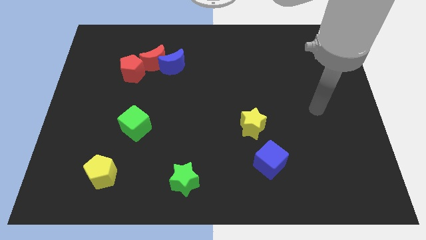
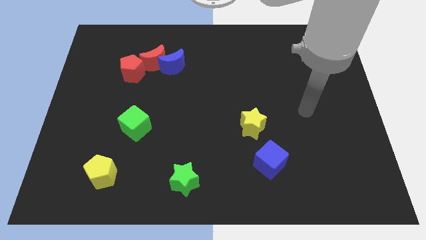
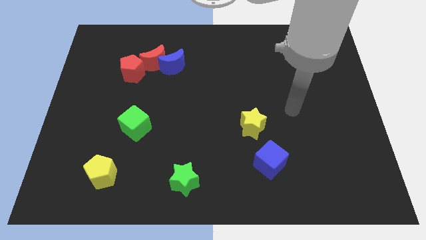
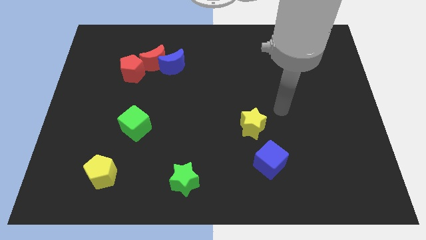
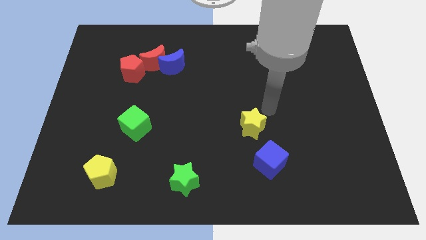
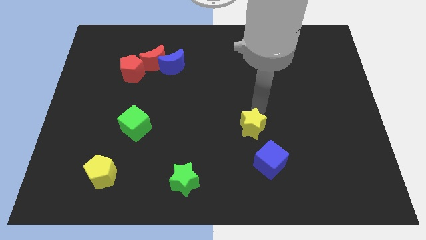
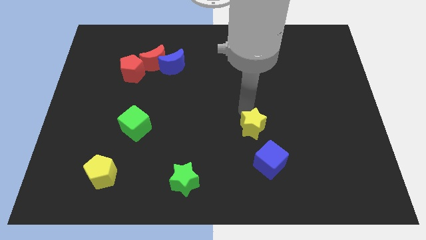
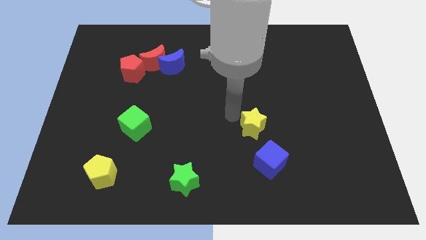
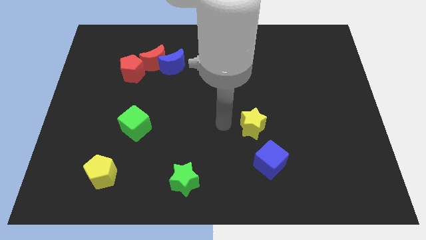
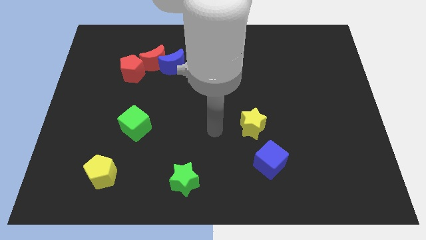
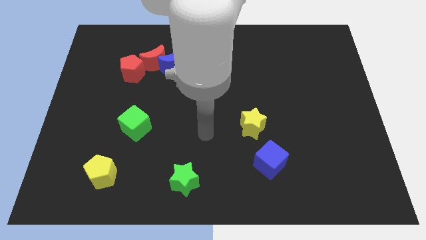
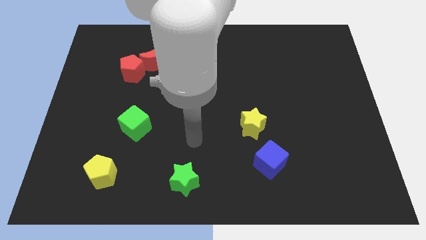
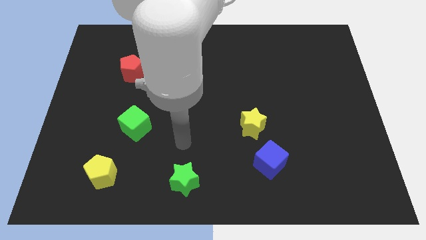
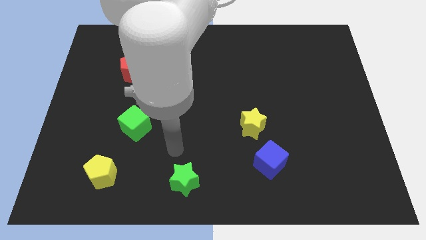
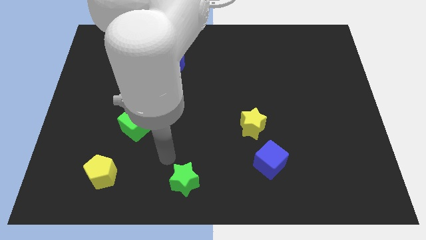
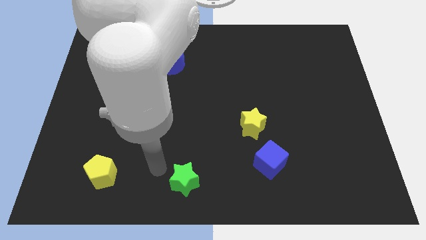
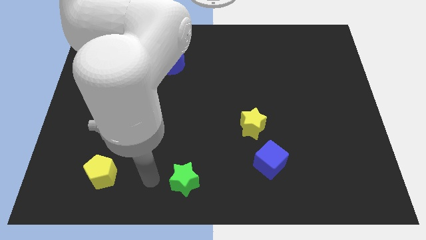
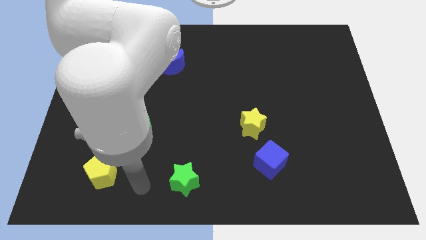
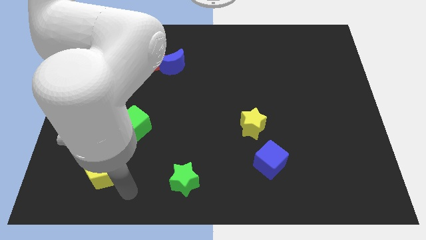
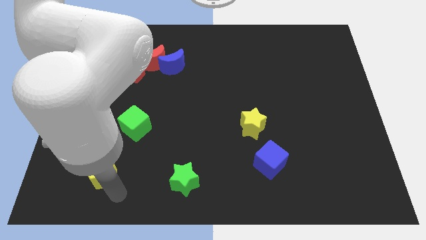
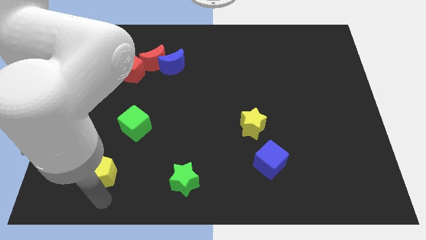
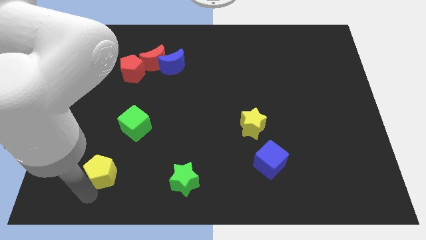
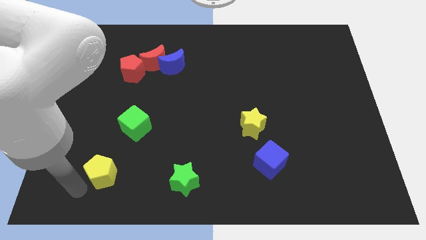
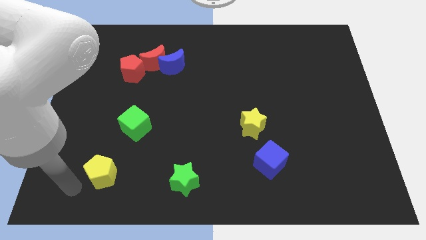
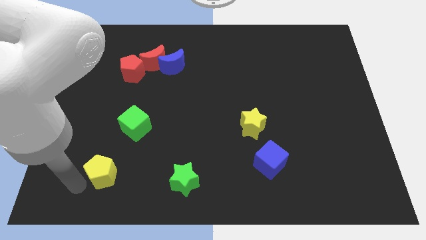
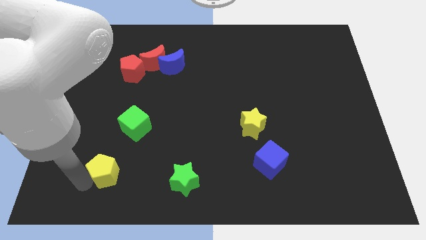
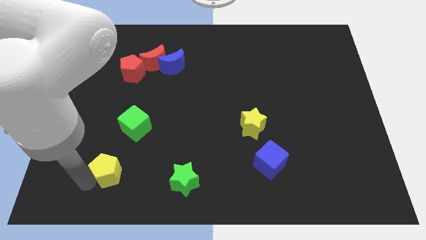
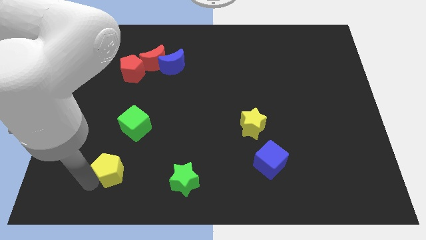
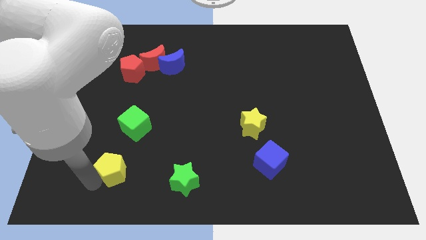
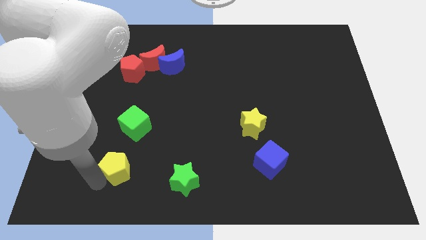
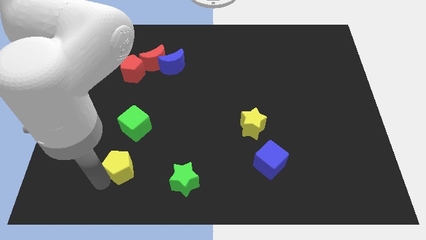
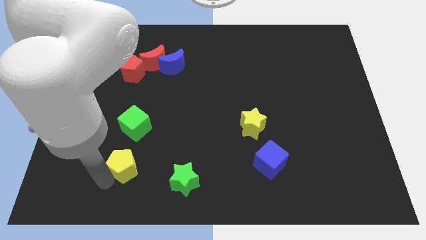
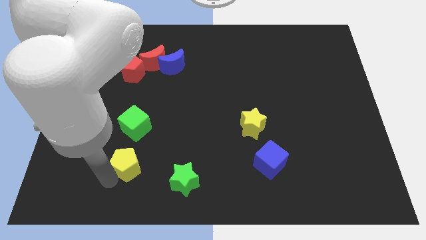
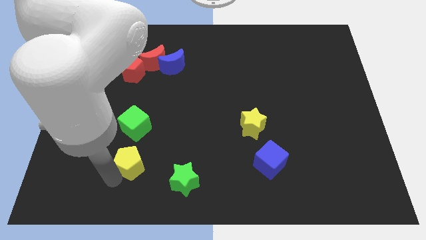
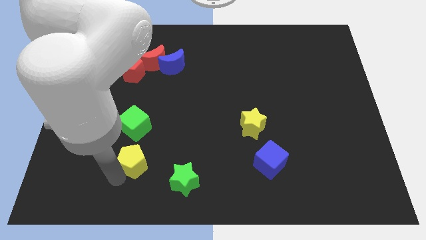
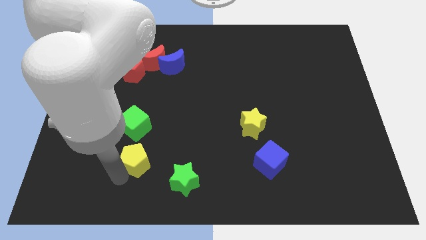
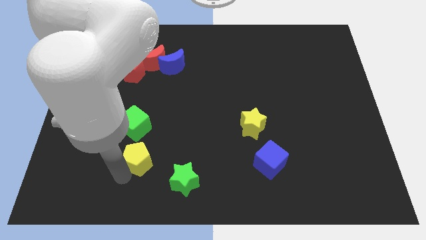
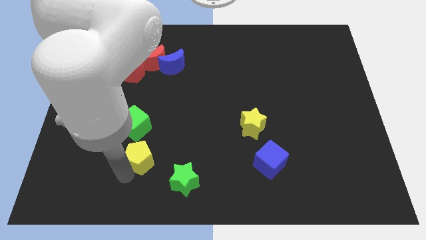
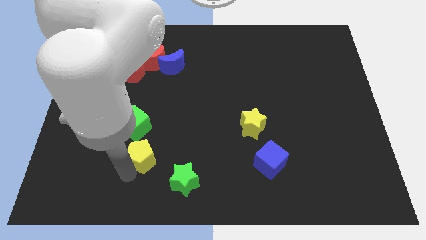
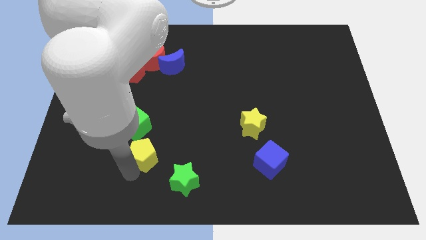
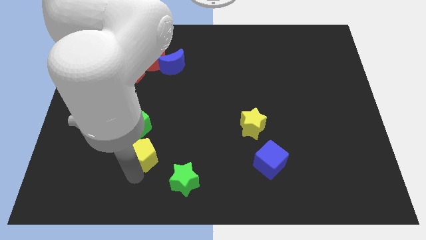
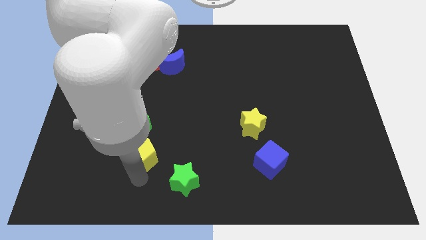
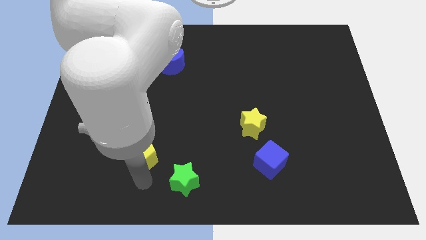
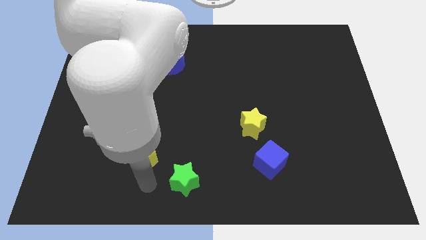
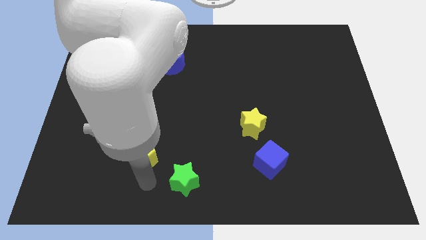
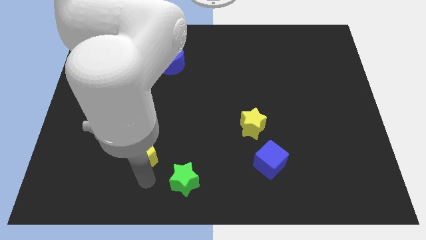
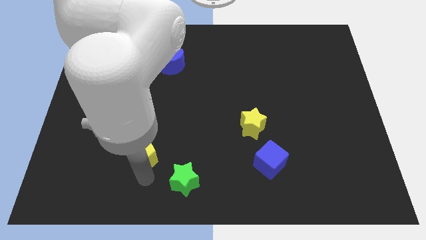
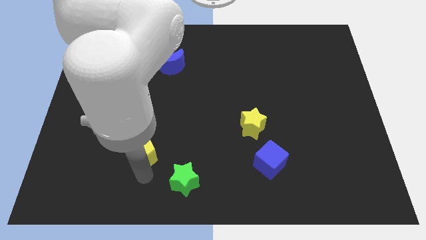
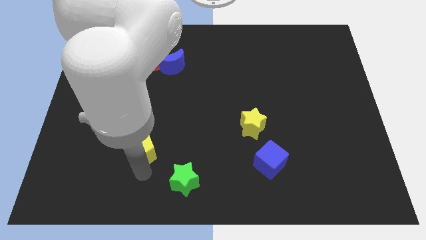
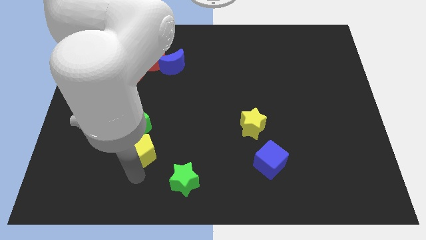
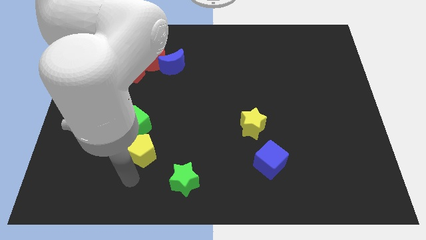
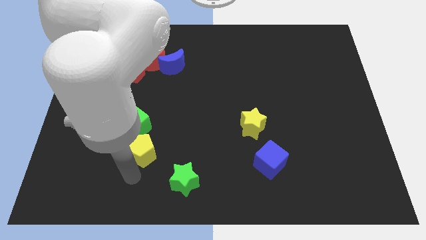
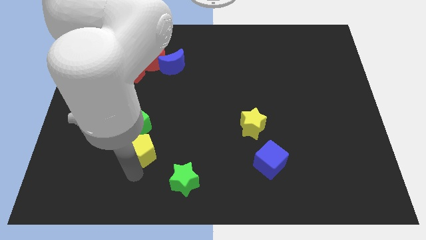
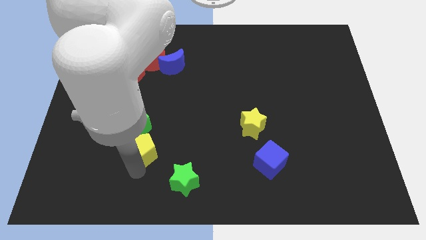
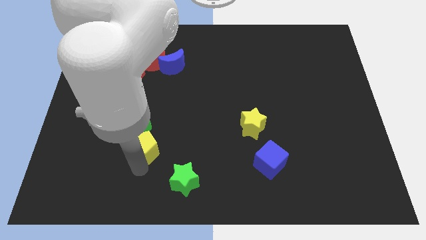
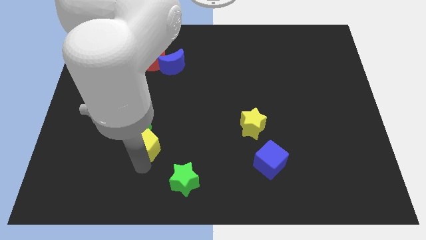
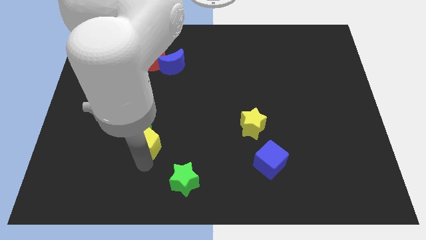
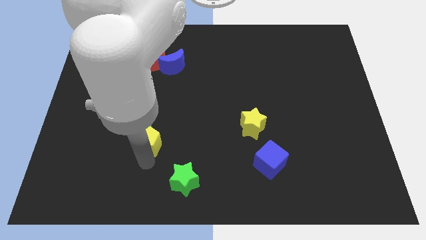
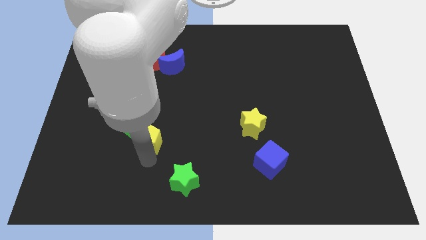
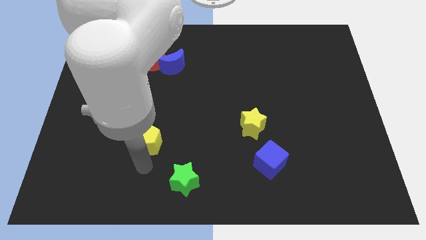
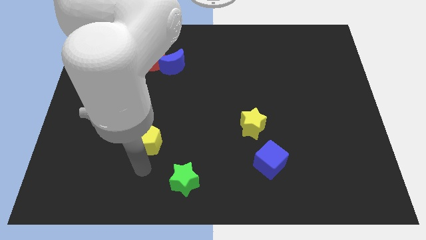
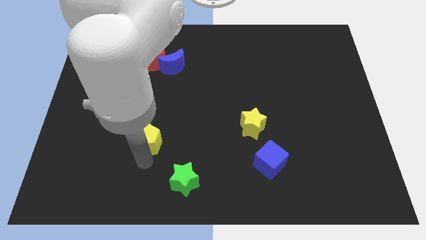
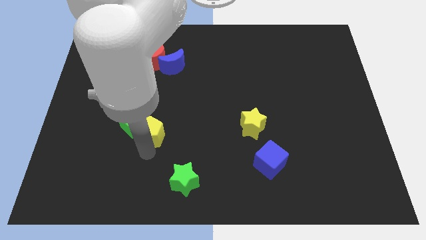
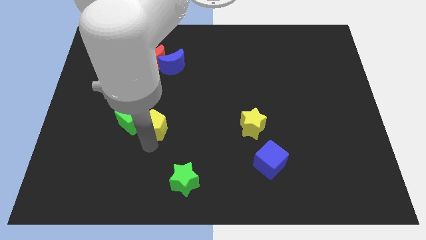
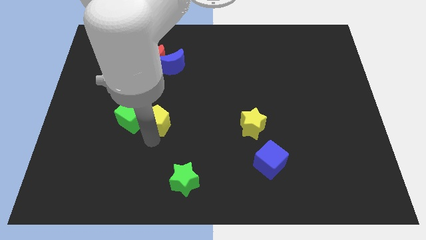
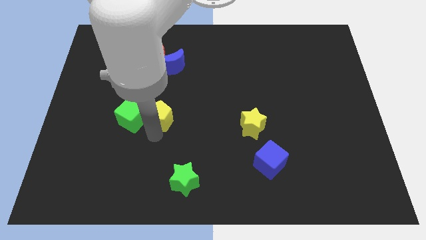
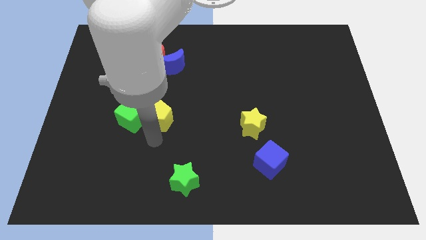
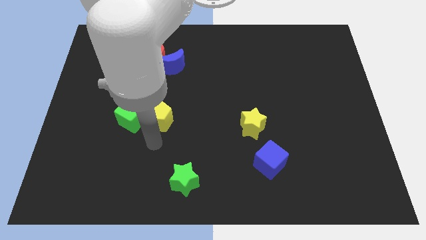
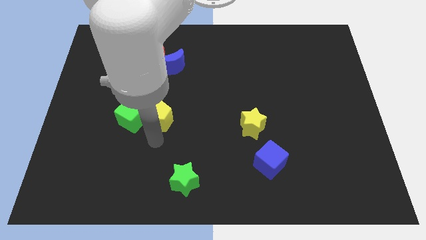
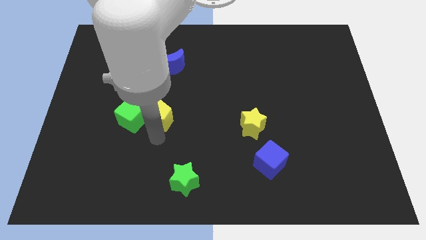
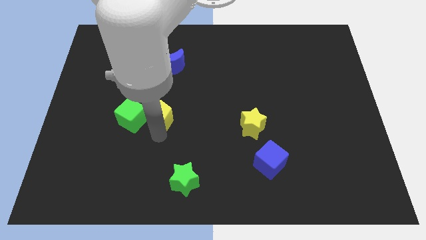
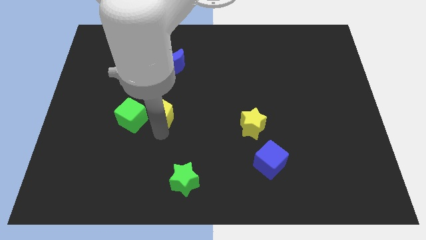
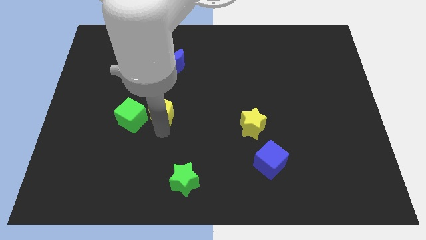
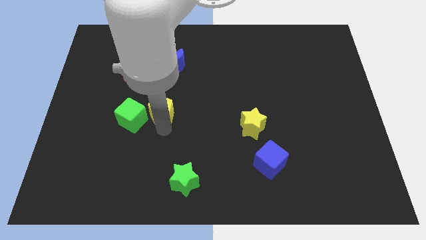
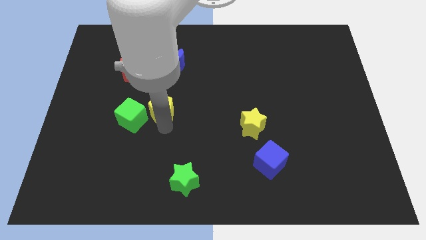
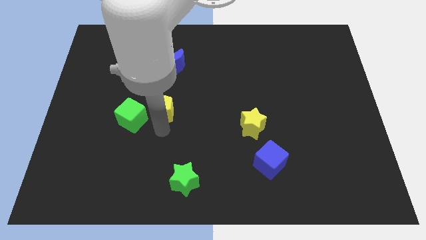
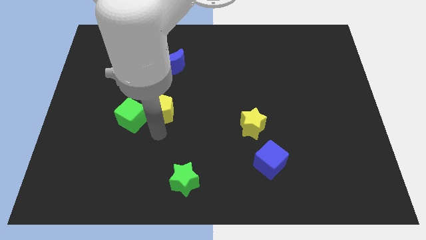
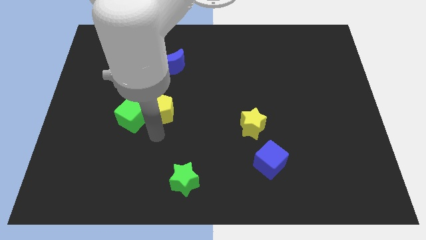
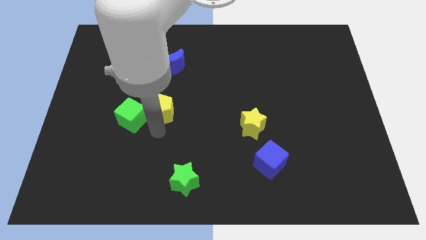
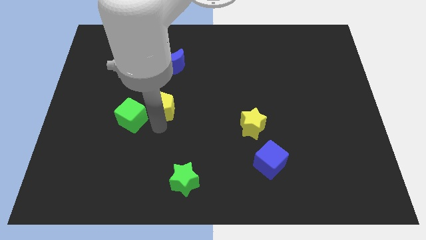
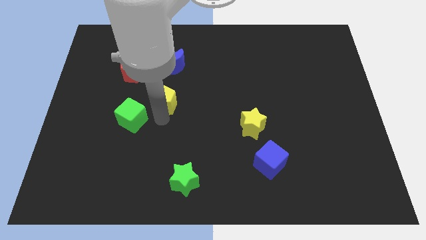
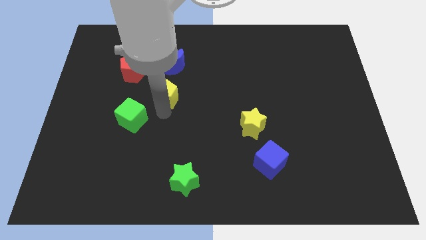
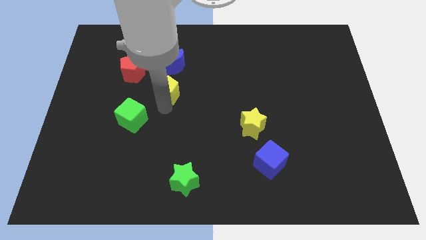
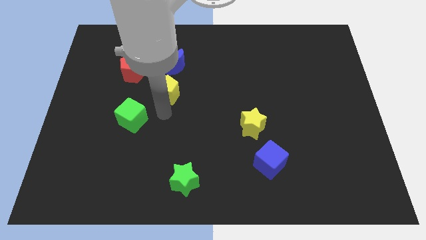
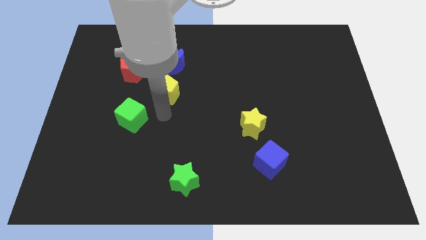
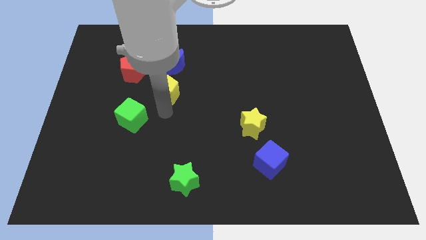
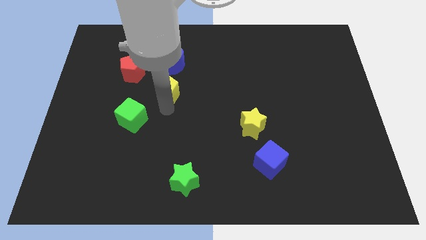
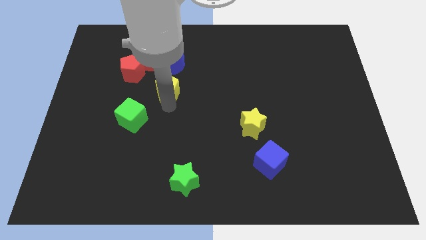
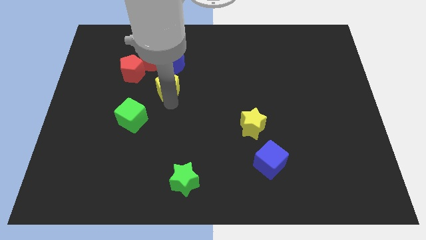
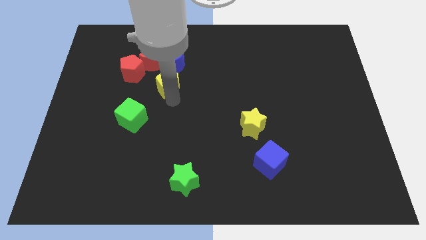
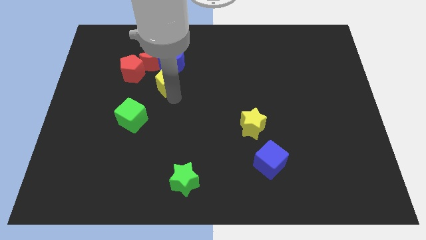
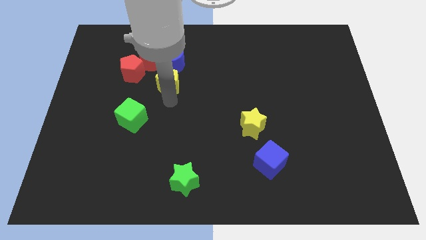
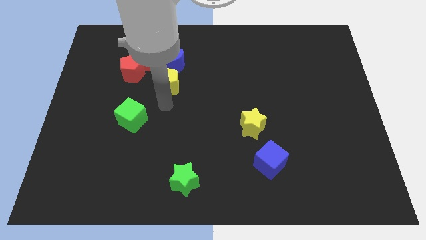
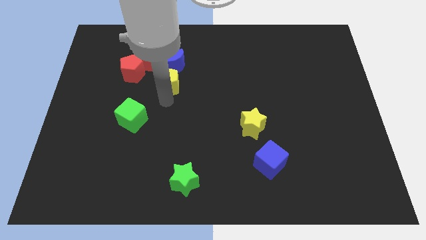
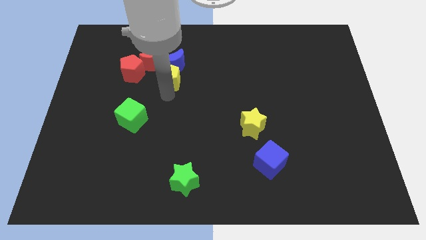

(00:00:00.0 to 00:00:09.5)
push the yellow pentagon to the blue moon
